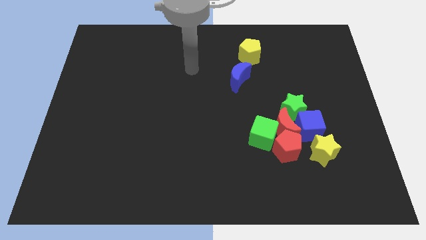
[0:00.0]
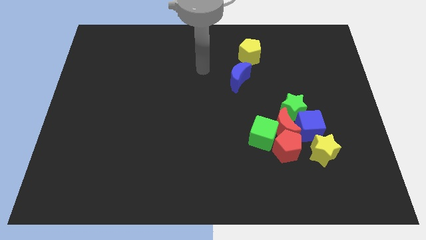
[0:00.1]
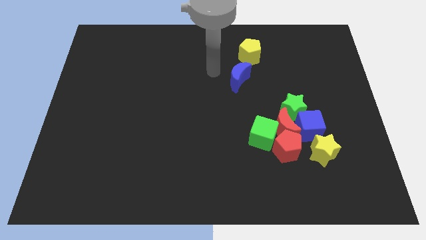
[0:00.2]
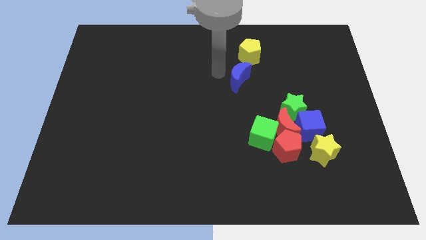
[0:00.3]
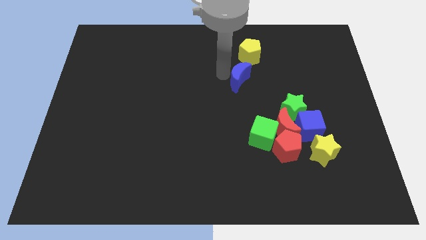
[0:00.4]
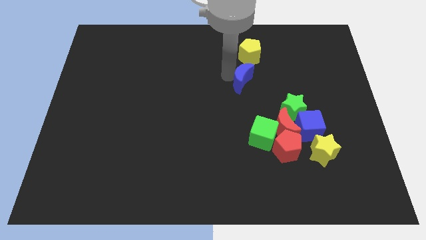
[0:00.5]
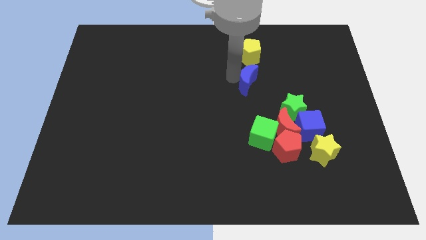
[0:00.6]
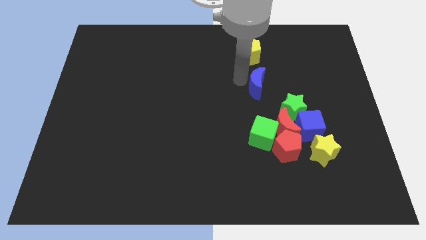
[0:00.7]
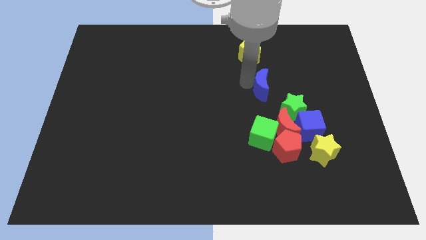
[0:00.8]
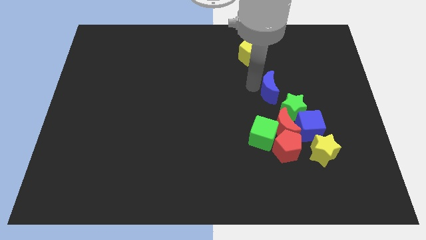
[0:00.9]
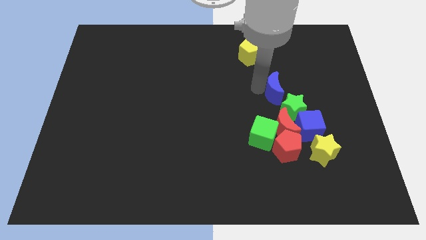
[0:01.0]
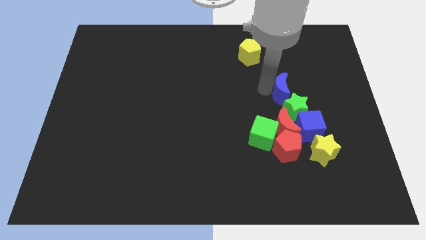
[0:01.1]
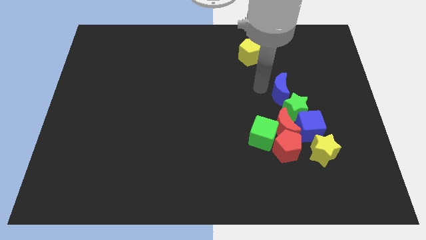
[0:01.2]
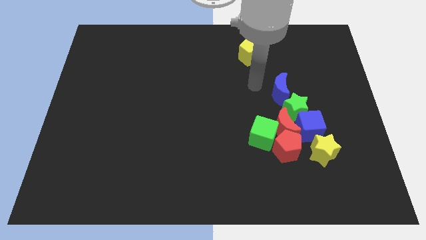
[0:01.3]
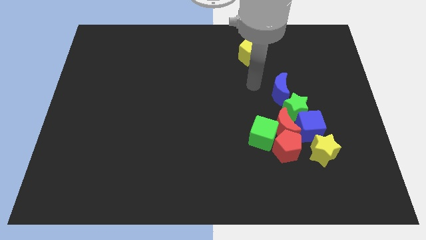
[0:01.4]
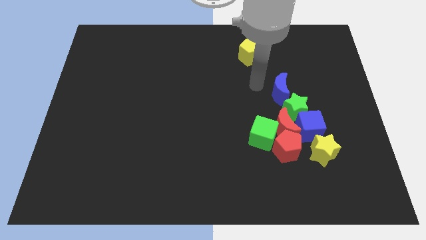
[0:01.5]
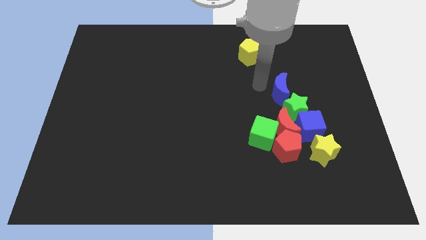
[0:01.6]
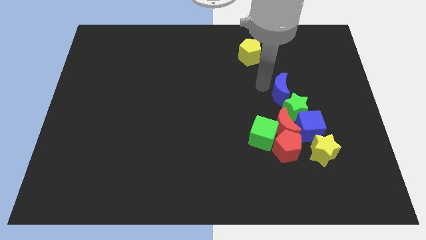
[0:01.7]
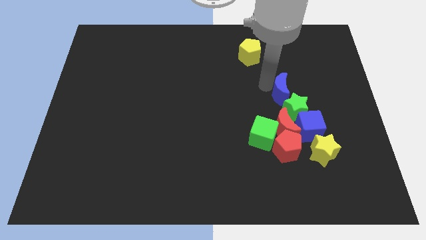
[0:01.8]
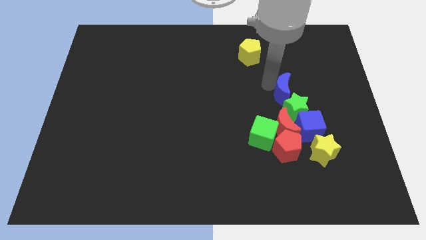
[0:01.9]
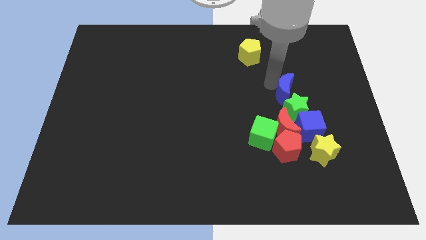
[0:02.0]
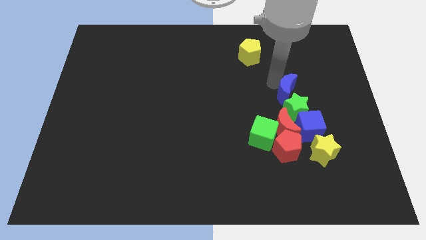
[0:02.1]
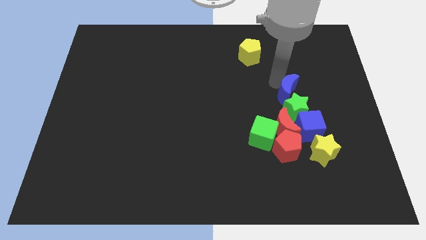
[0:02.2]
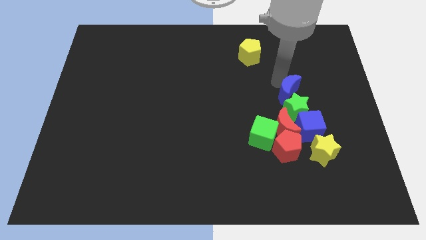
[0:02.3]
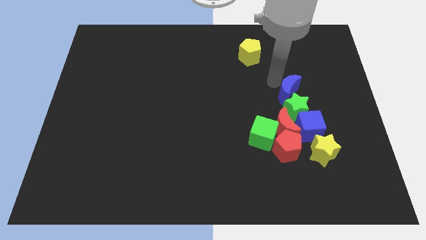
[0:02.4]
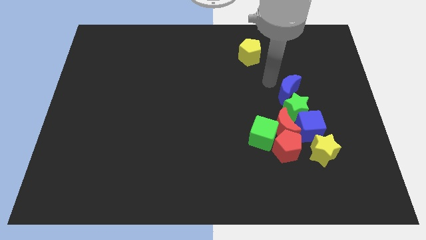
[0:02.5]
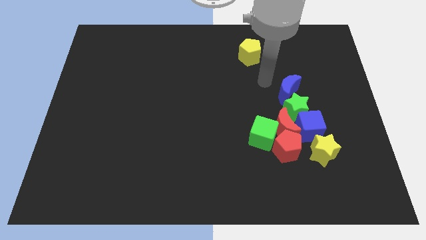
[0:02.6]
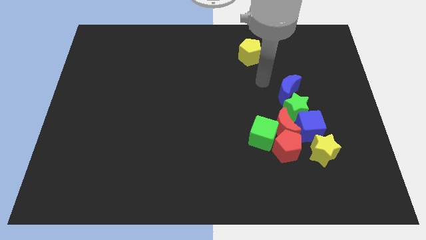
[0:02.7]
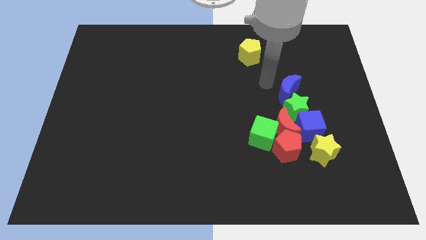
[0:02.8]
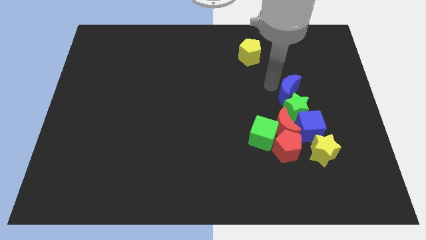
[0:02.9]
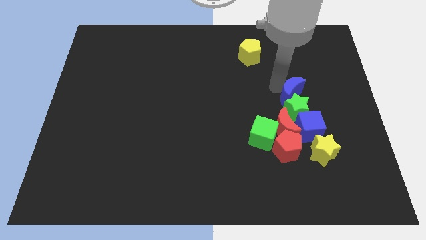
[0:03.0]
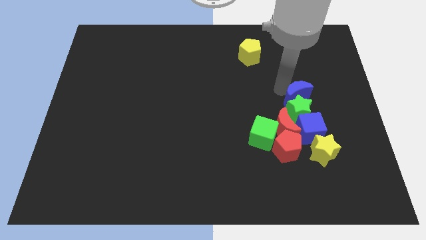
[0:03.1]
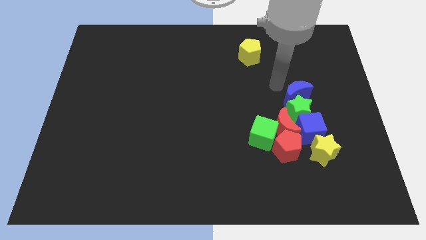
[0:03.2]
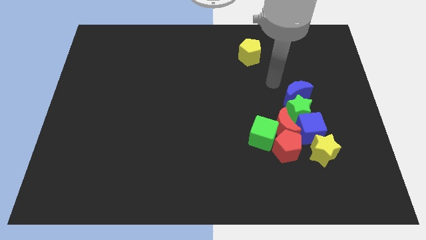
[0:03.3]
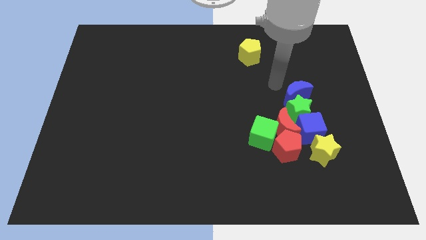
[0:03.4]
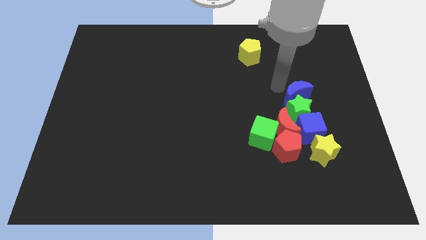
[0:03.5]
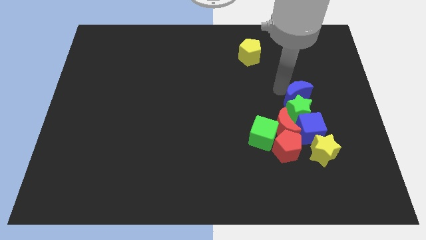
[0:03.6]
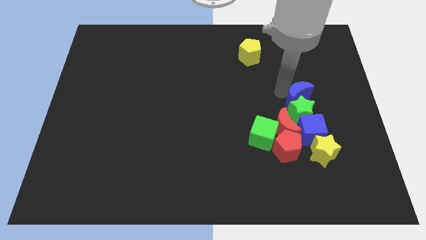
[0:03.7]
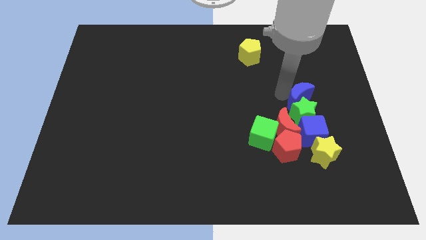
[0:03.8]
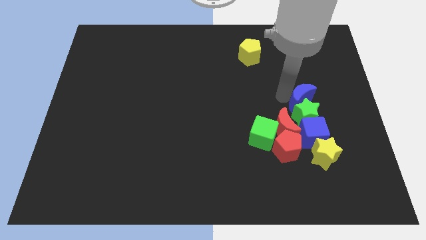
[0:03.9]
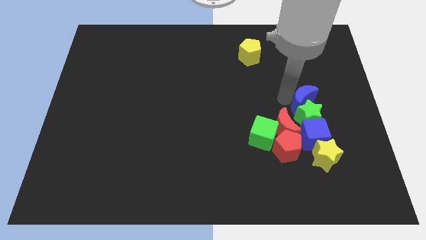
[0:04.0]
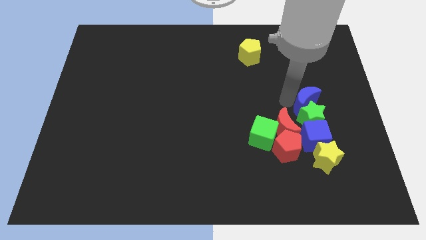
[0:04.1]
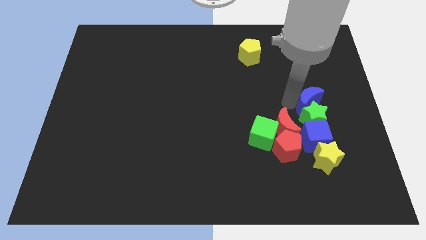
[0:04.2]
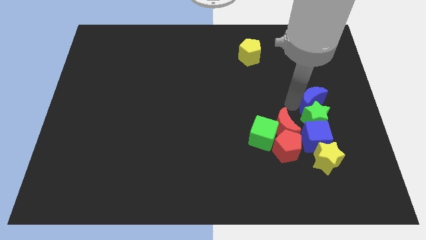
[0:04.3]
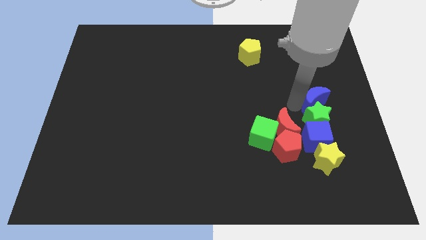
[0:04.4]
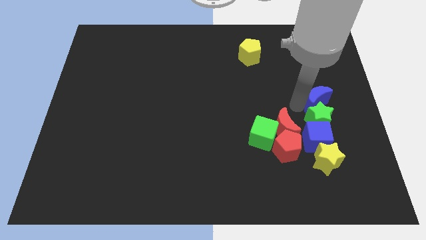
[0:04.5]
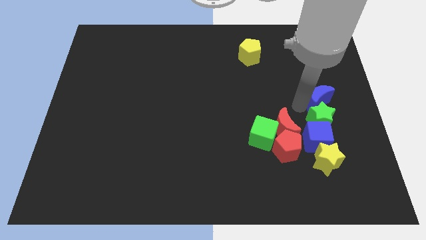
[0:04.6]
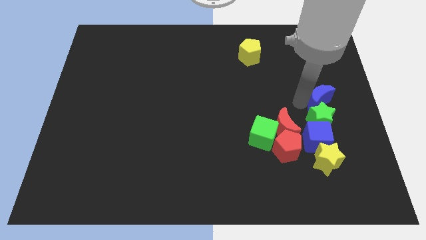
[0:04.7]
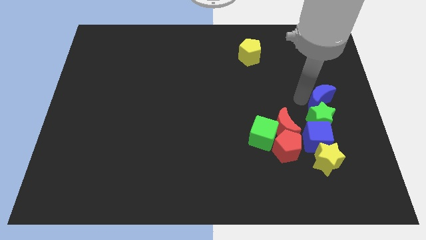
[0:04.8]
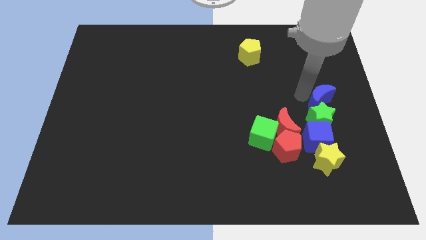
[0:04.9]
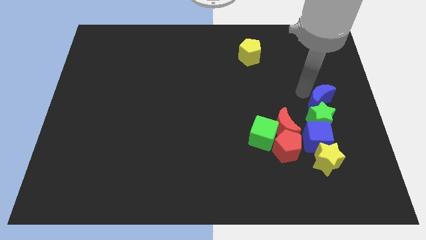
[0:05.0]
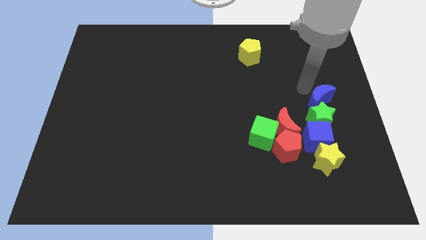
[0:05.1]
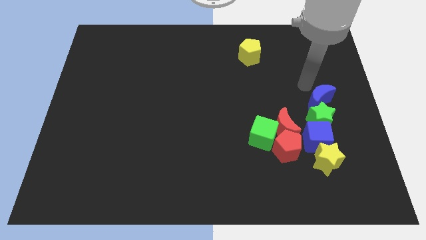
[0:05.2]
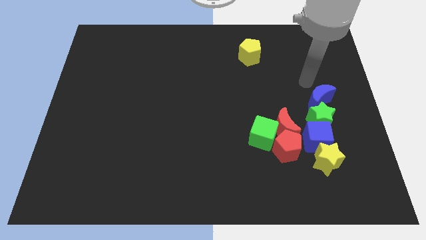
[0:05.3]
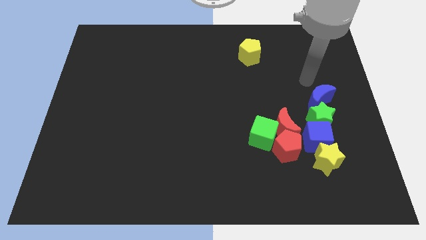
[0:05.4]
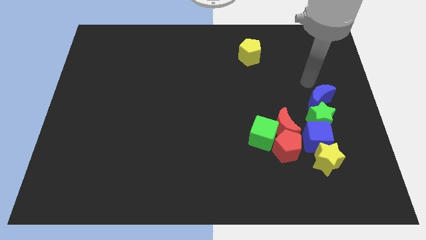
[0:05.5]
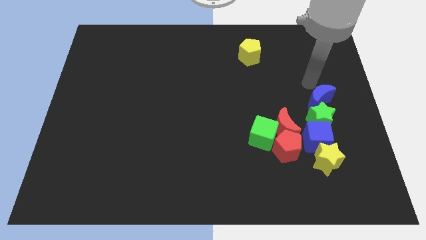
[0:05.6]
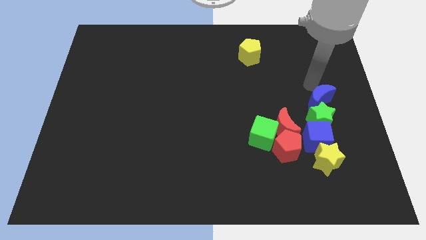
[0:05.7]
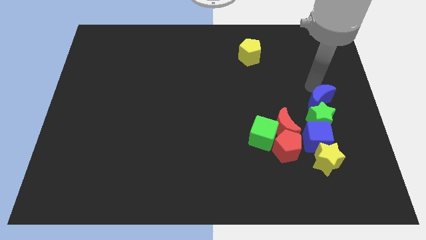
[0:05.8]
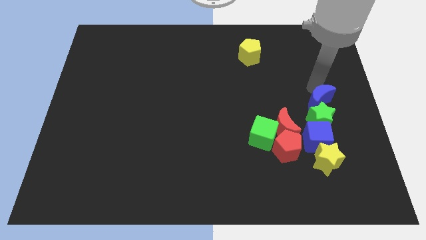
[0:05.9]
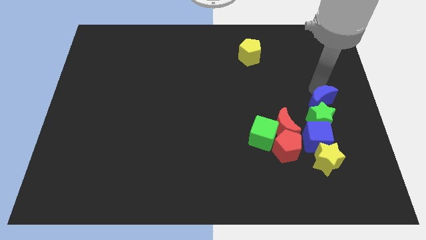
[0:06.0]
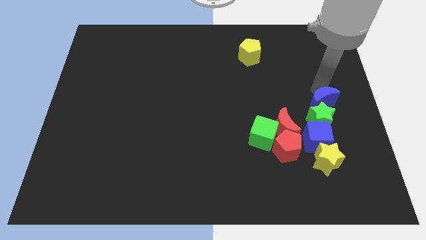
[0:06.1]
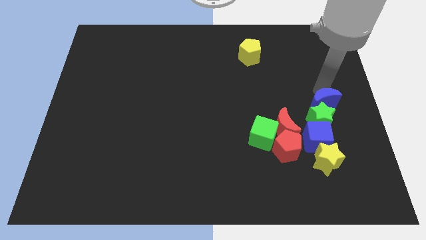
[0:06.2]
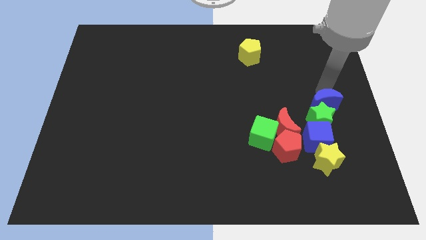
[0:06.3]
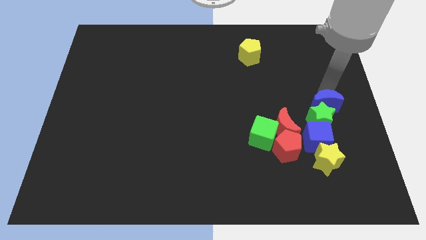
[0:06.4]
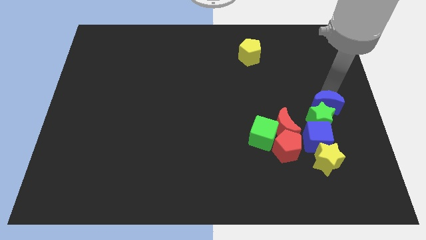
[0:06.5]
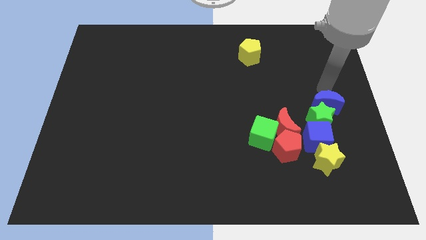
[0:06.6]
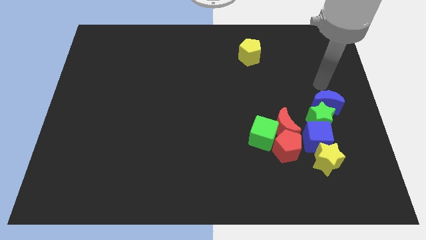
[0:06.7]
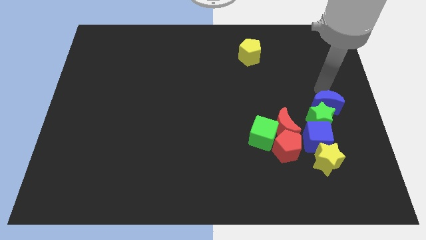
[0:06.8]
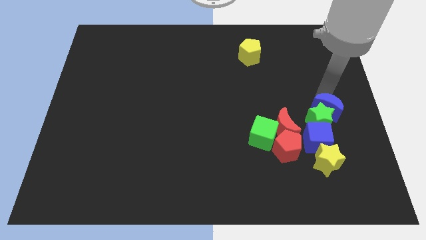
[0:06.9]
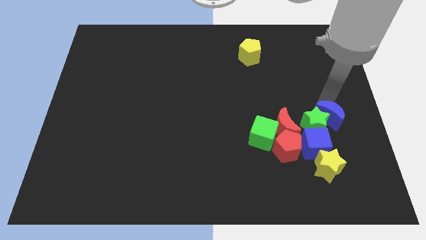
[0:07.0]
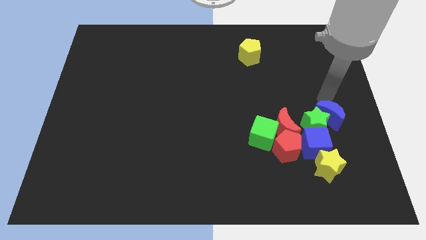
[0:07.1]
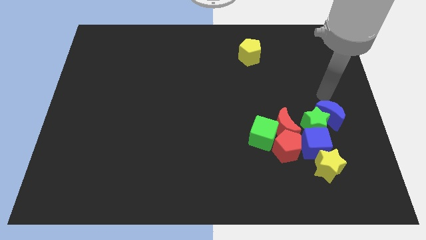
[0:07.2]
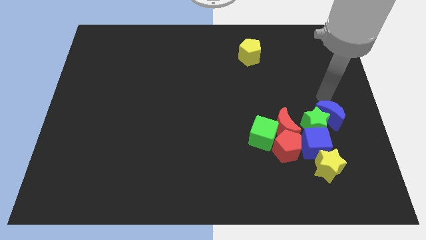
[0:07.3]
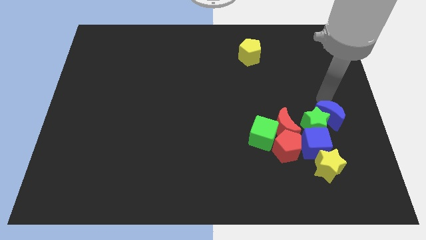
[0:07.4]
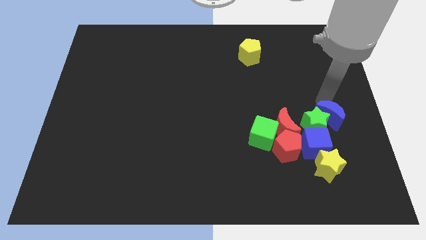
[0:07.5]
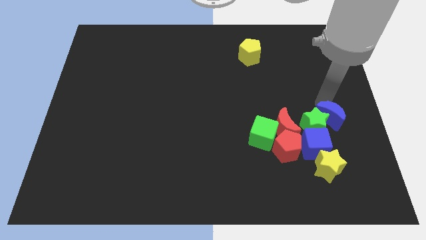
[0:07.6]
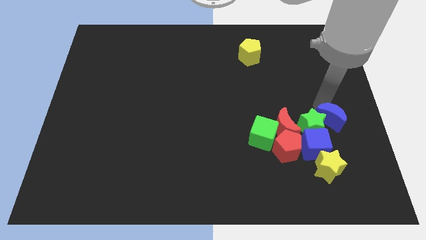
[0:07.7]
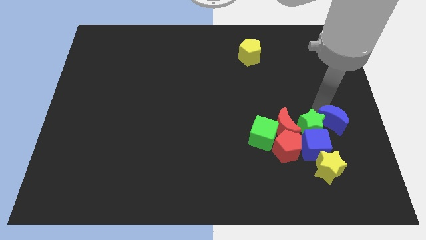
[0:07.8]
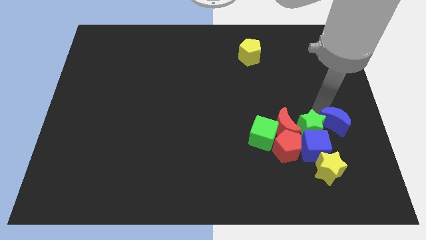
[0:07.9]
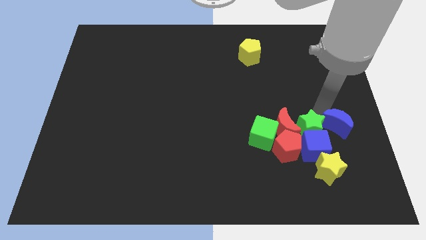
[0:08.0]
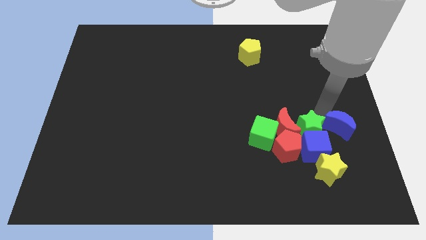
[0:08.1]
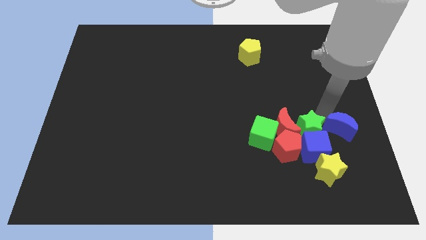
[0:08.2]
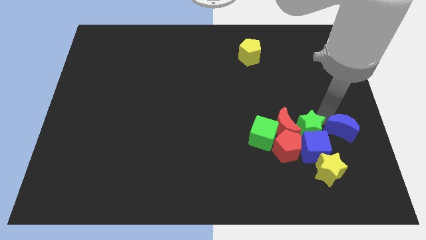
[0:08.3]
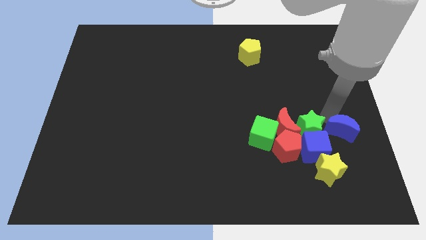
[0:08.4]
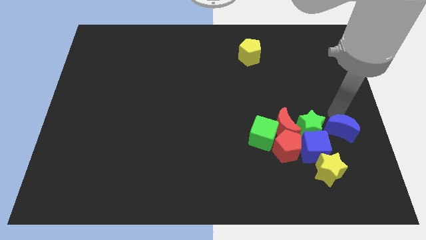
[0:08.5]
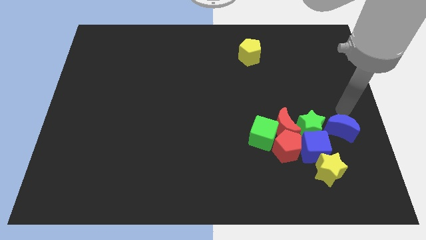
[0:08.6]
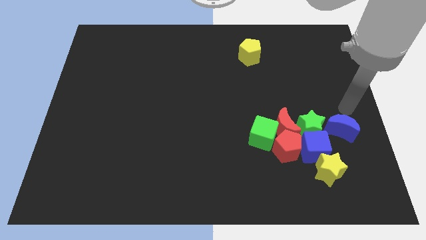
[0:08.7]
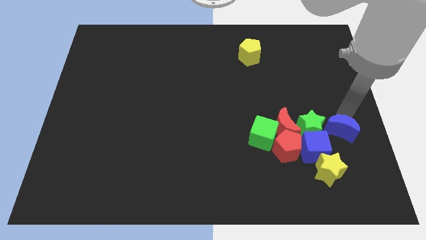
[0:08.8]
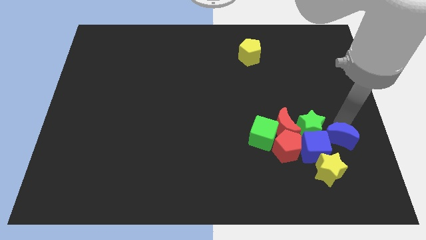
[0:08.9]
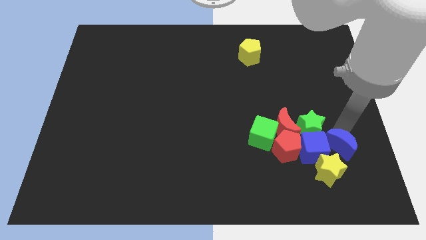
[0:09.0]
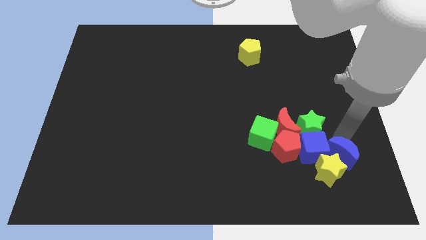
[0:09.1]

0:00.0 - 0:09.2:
slide the blue moon next to the yellow star
